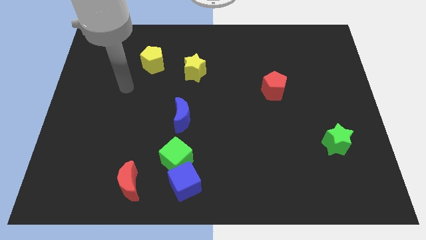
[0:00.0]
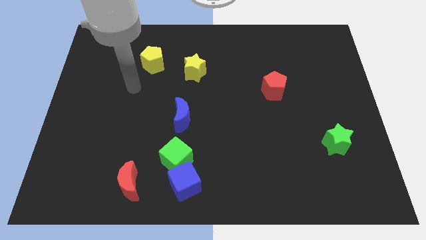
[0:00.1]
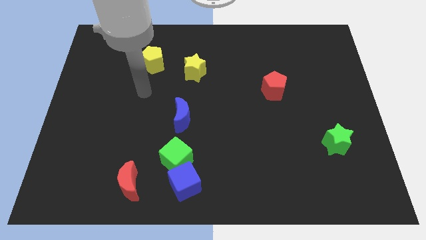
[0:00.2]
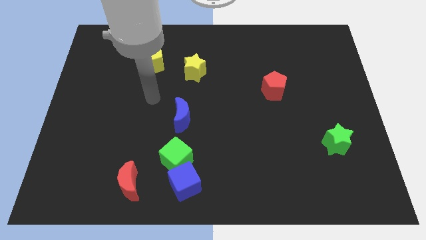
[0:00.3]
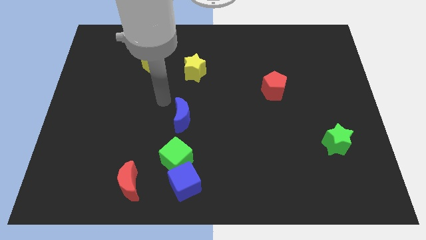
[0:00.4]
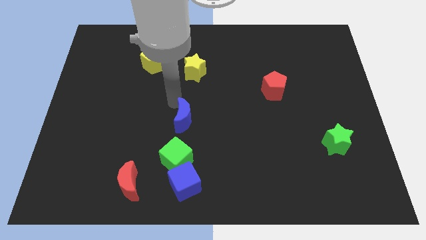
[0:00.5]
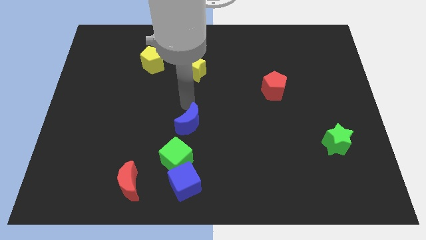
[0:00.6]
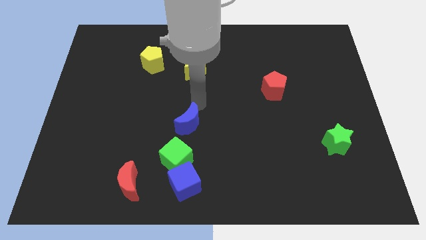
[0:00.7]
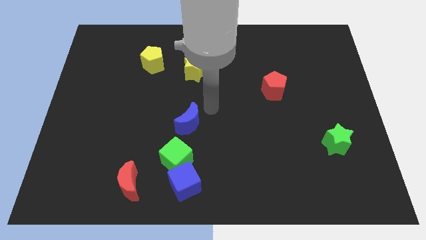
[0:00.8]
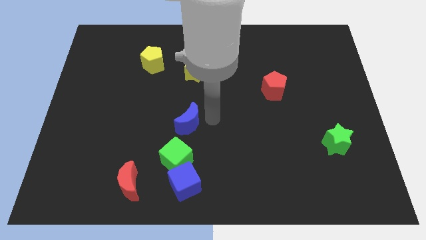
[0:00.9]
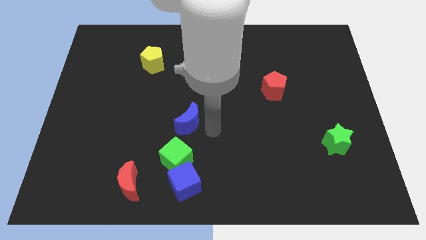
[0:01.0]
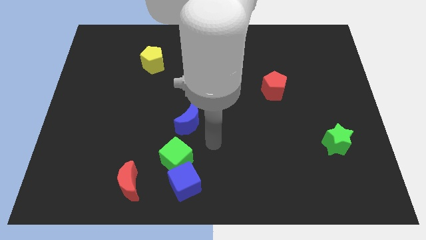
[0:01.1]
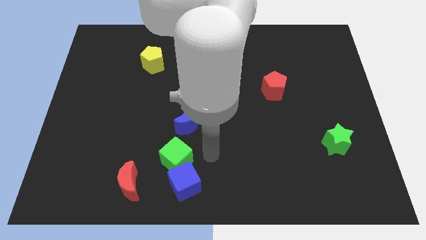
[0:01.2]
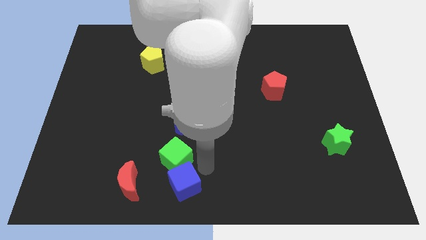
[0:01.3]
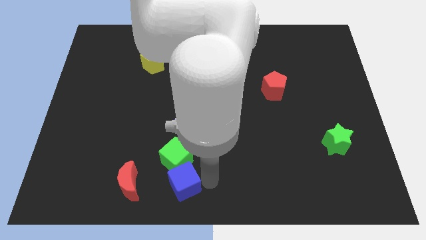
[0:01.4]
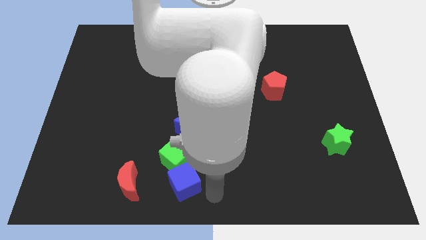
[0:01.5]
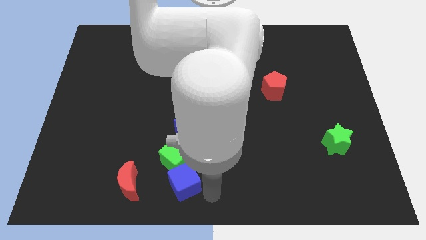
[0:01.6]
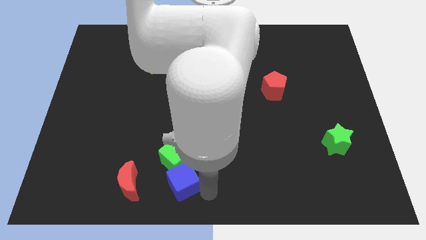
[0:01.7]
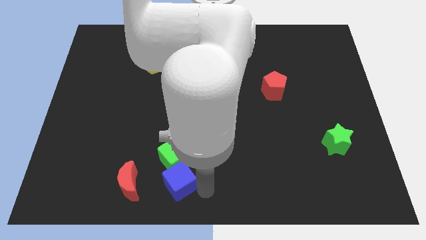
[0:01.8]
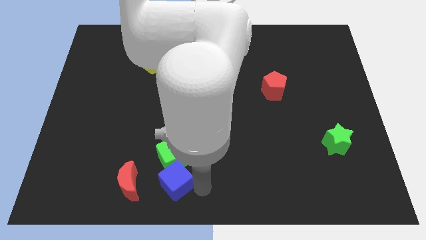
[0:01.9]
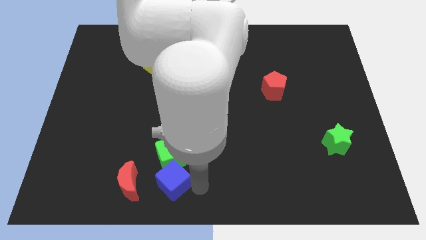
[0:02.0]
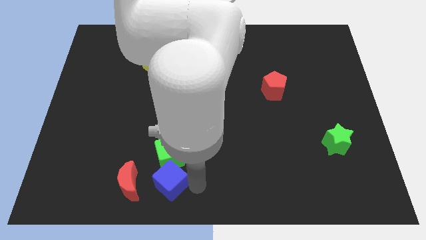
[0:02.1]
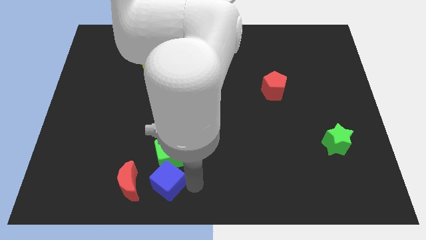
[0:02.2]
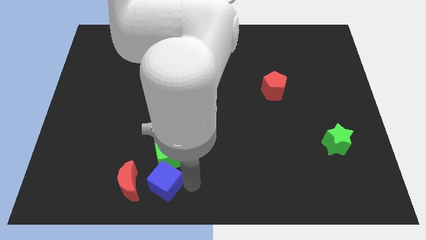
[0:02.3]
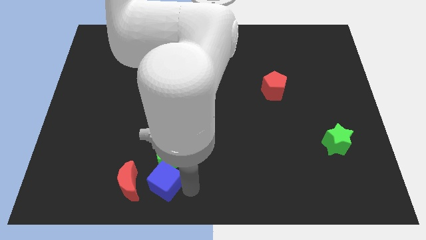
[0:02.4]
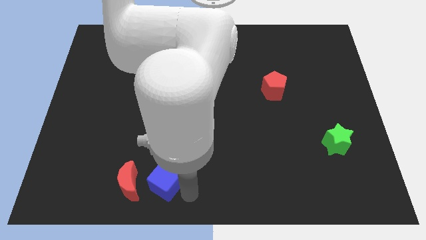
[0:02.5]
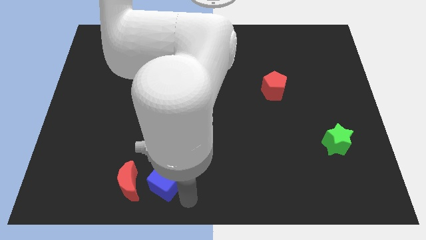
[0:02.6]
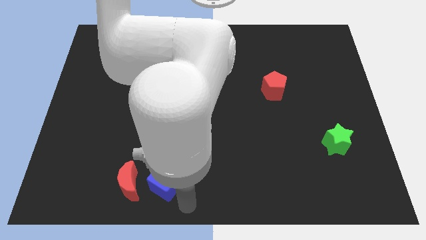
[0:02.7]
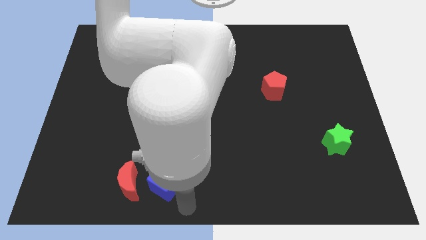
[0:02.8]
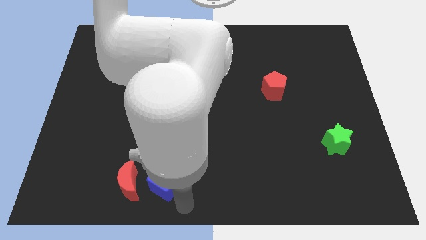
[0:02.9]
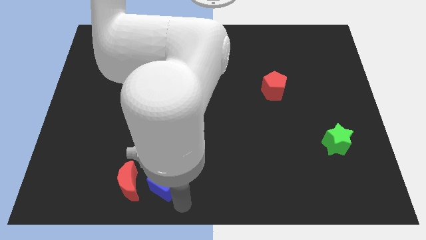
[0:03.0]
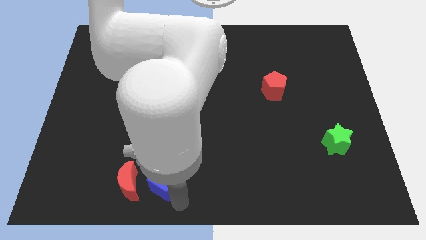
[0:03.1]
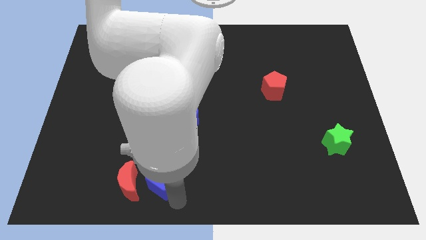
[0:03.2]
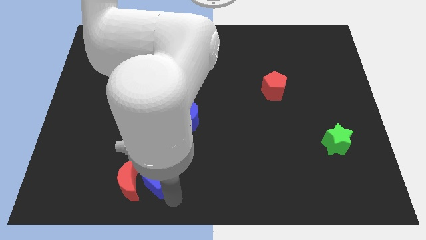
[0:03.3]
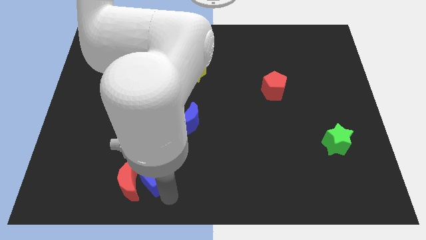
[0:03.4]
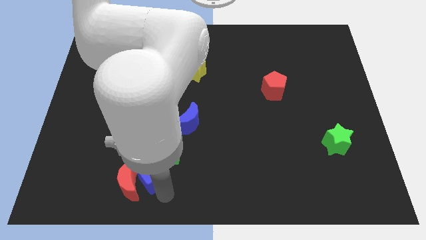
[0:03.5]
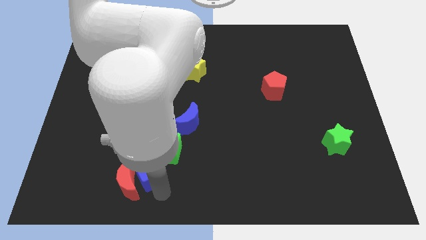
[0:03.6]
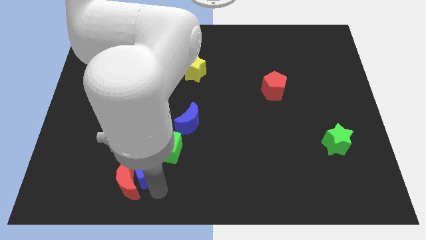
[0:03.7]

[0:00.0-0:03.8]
slightly push the blue cube up and left

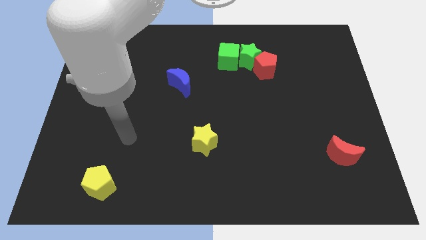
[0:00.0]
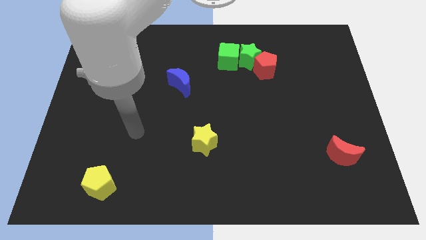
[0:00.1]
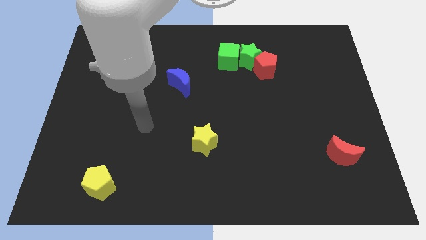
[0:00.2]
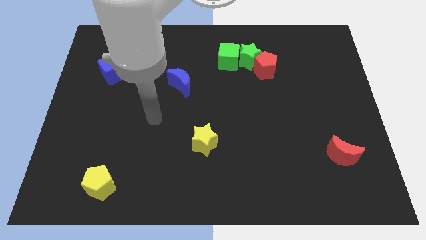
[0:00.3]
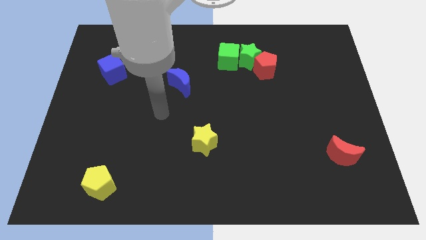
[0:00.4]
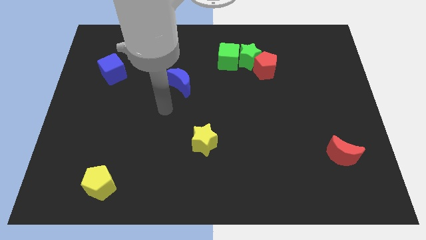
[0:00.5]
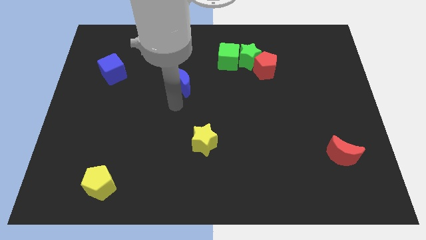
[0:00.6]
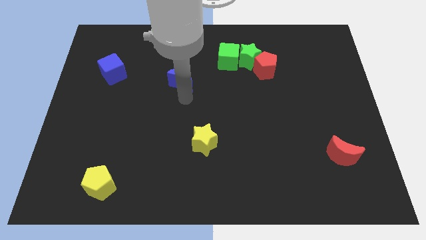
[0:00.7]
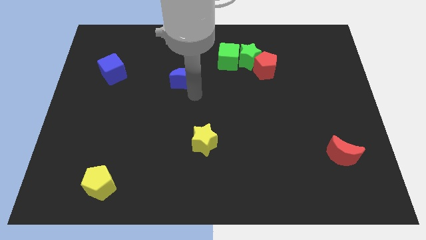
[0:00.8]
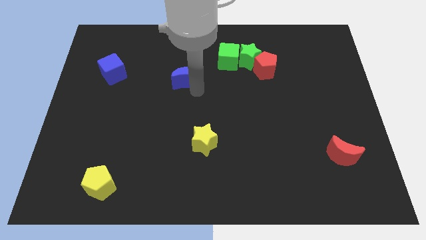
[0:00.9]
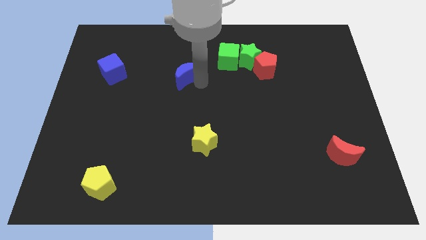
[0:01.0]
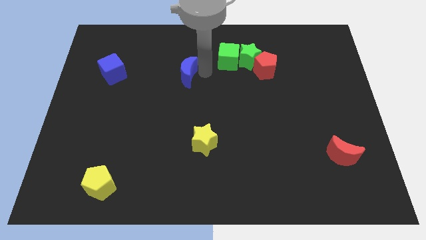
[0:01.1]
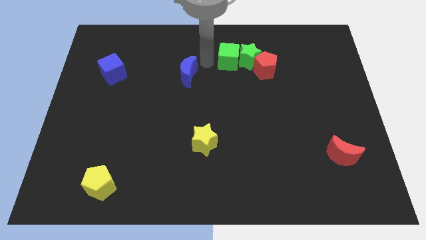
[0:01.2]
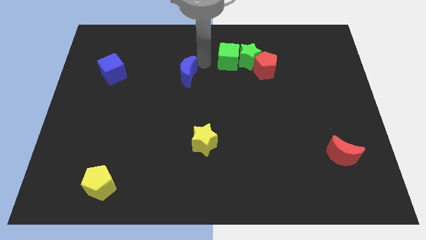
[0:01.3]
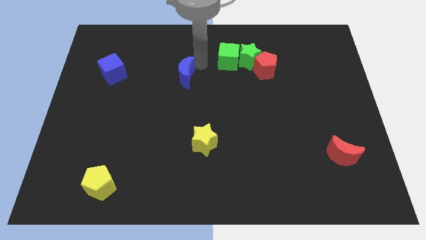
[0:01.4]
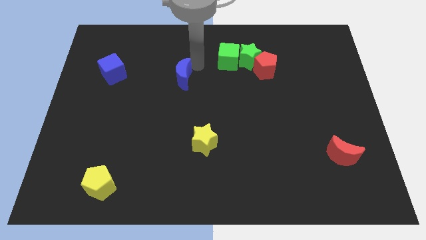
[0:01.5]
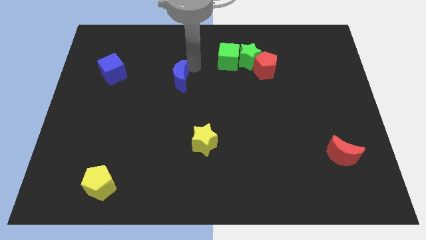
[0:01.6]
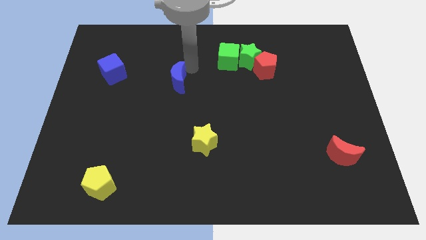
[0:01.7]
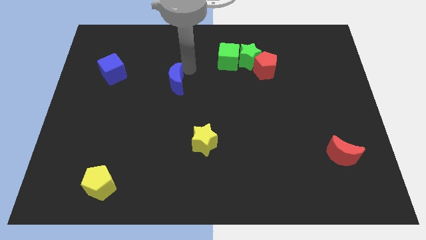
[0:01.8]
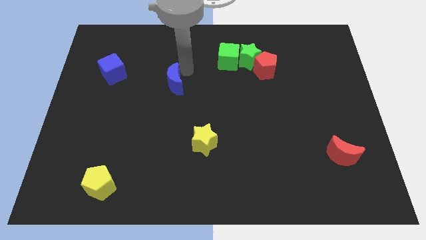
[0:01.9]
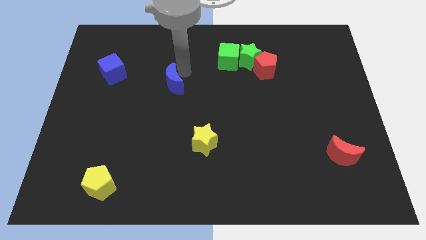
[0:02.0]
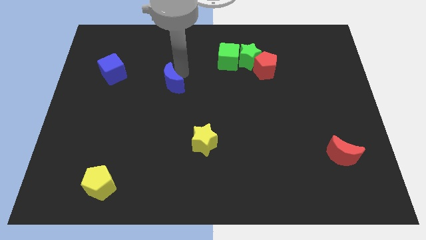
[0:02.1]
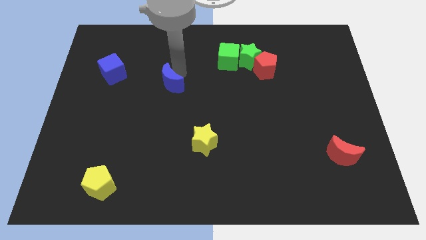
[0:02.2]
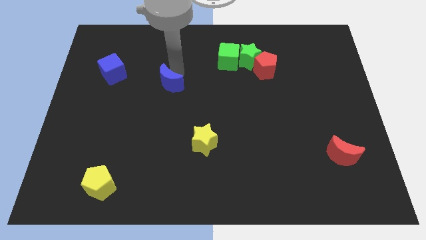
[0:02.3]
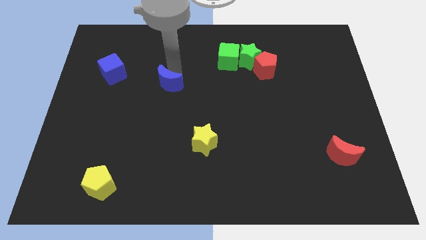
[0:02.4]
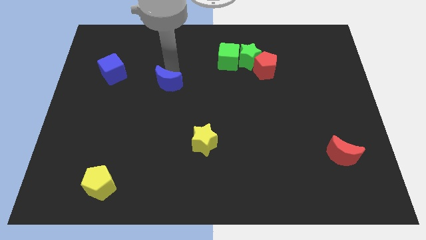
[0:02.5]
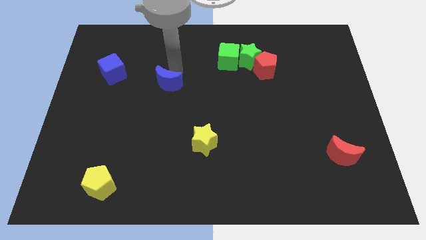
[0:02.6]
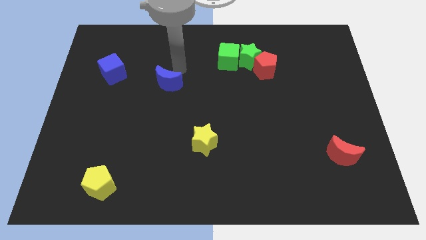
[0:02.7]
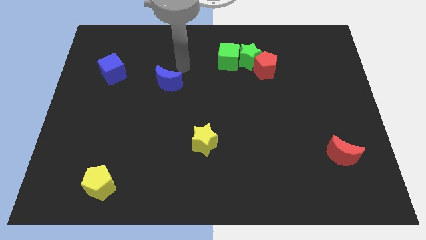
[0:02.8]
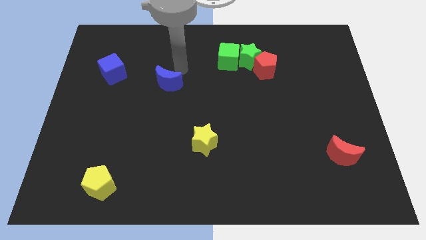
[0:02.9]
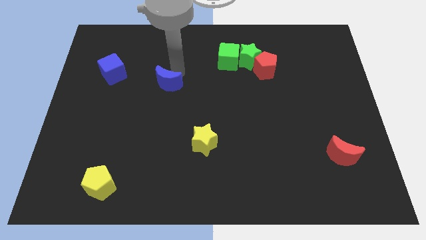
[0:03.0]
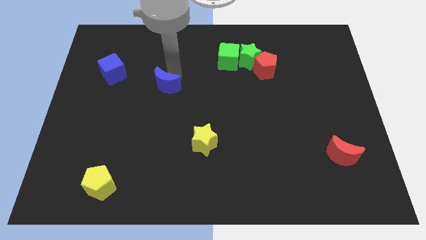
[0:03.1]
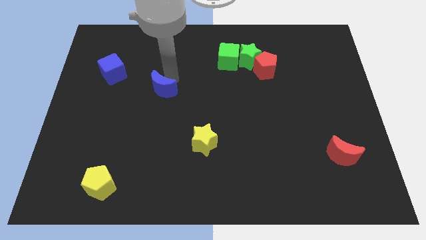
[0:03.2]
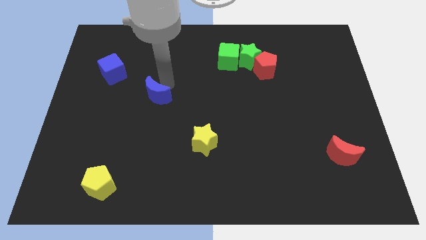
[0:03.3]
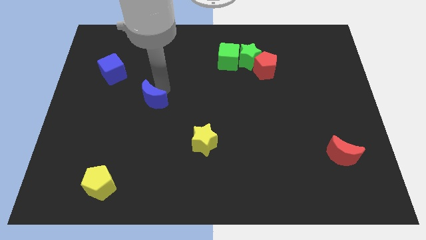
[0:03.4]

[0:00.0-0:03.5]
slightly move the blue moon downwards and left diagonally

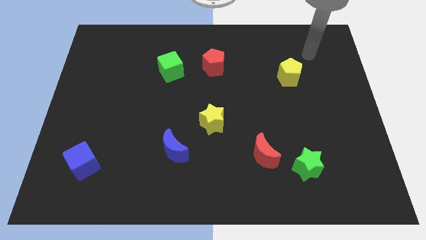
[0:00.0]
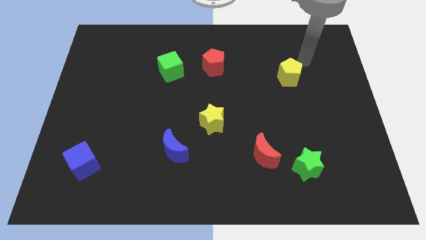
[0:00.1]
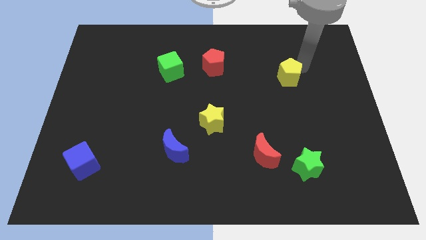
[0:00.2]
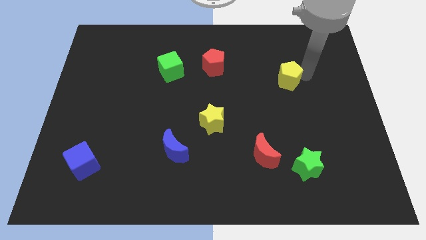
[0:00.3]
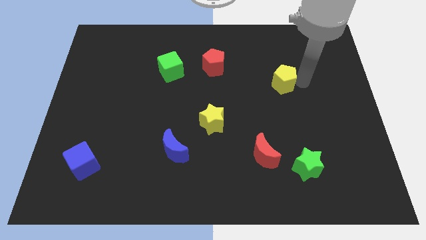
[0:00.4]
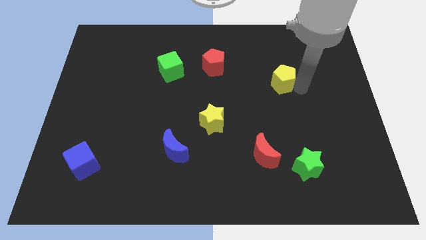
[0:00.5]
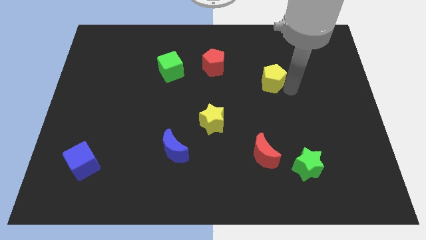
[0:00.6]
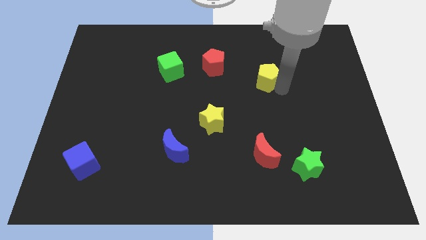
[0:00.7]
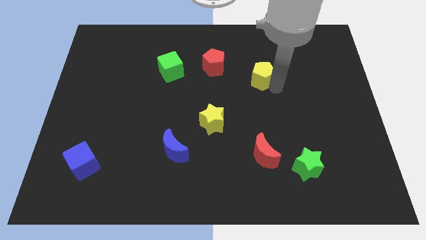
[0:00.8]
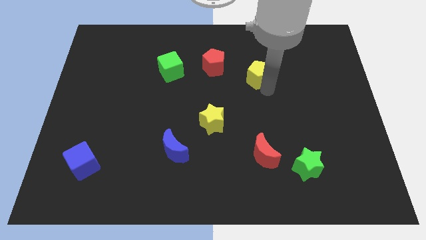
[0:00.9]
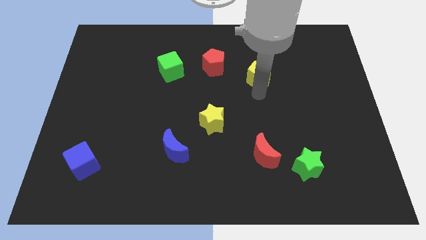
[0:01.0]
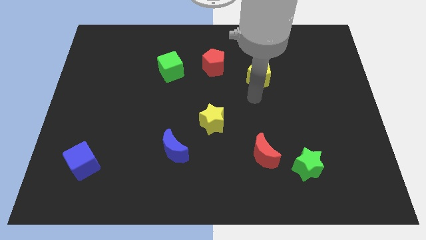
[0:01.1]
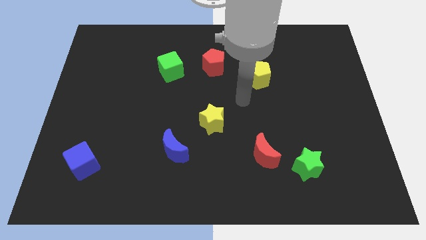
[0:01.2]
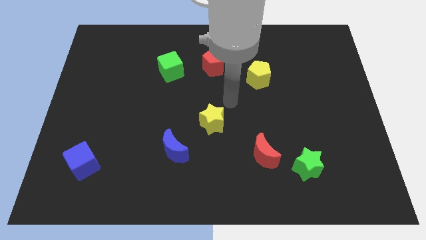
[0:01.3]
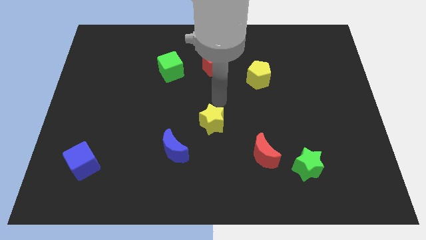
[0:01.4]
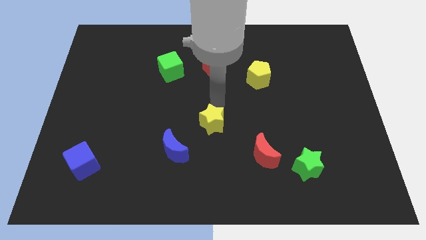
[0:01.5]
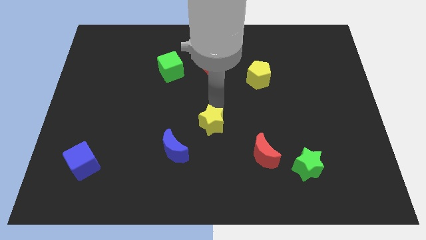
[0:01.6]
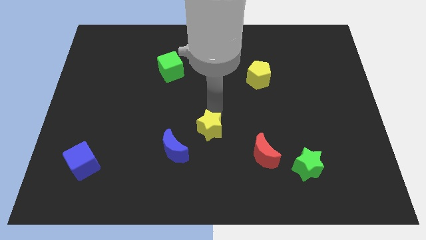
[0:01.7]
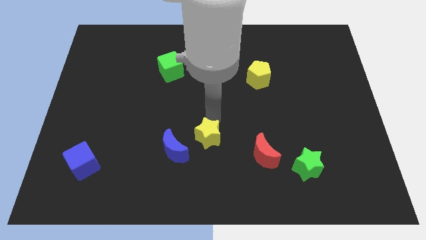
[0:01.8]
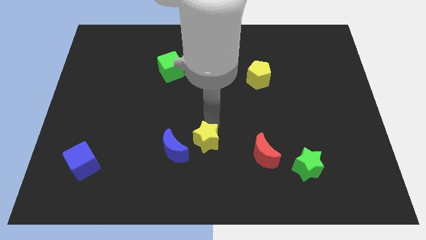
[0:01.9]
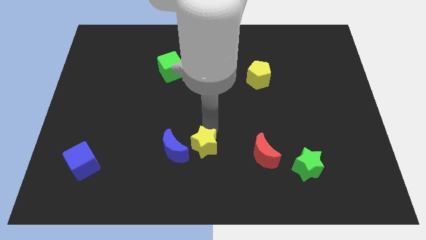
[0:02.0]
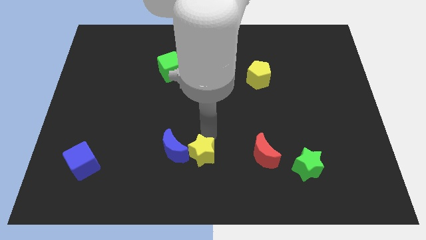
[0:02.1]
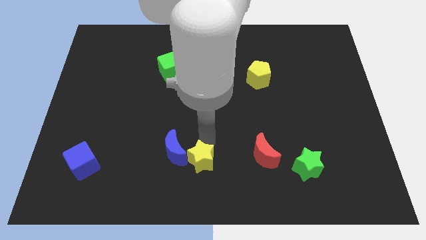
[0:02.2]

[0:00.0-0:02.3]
push the yellow star downwards and then to the left slightly
